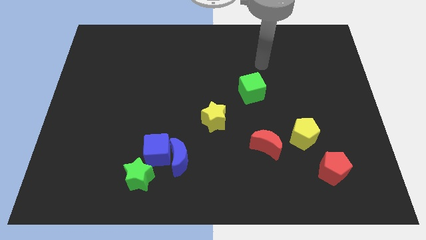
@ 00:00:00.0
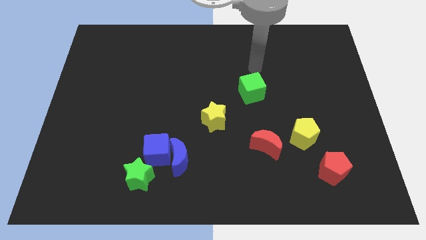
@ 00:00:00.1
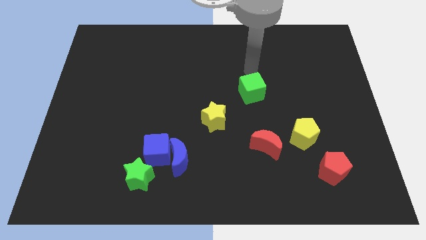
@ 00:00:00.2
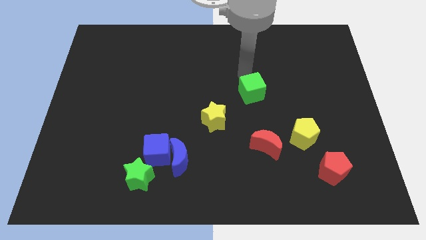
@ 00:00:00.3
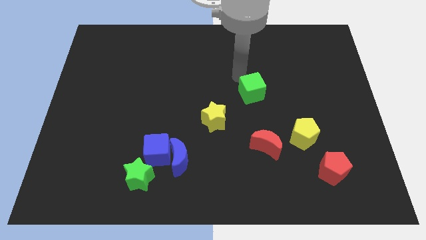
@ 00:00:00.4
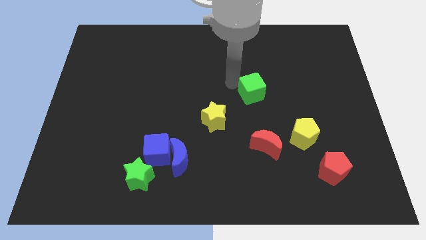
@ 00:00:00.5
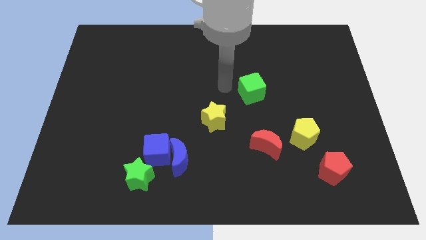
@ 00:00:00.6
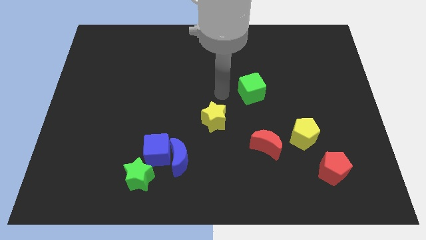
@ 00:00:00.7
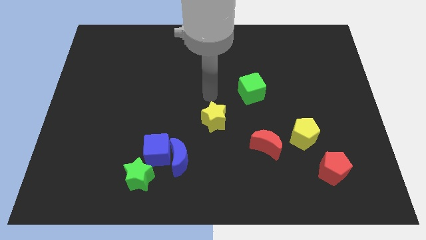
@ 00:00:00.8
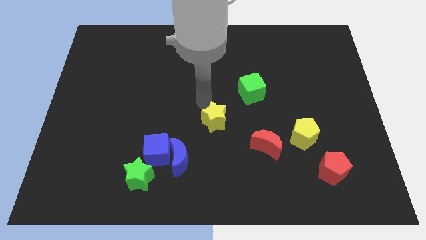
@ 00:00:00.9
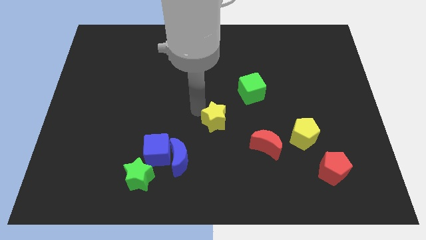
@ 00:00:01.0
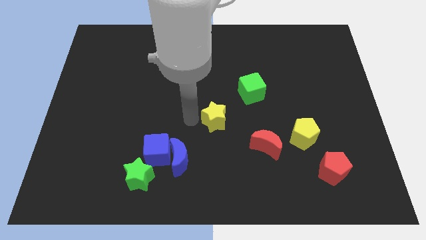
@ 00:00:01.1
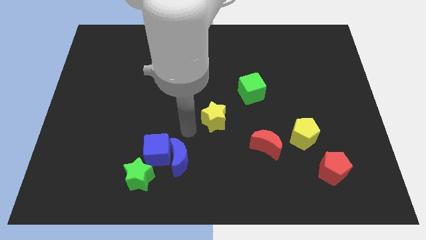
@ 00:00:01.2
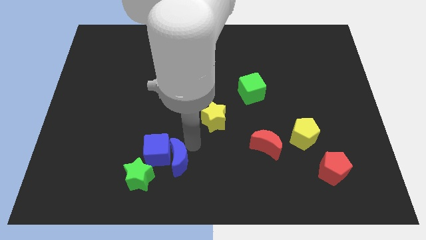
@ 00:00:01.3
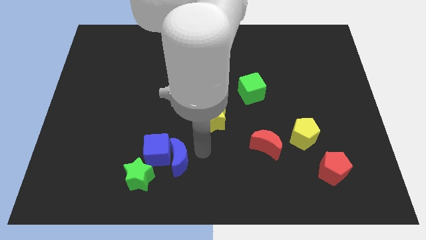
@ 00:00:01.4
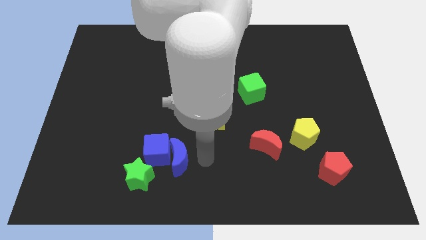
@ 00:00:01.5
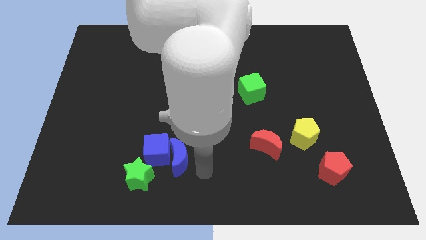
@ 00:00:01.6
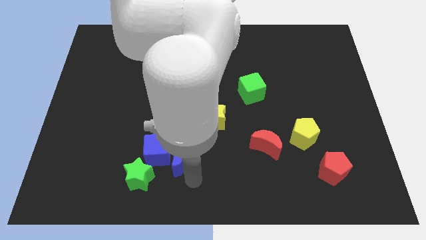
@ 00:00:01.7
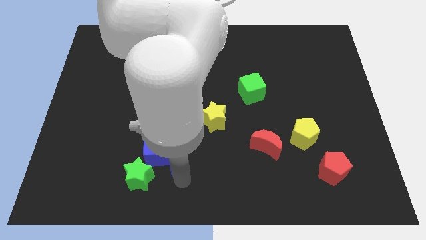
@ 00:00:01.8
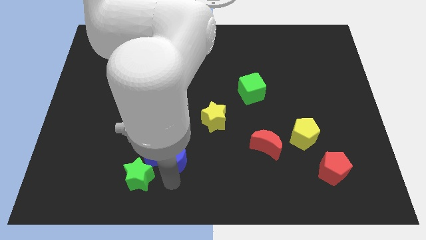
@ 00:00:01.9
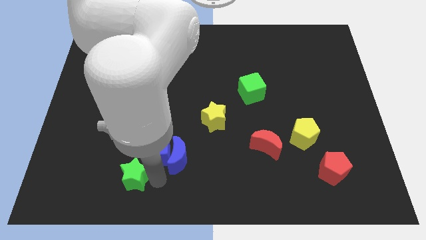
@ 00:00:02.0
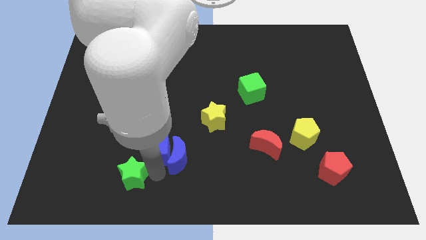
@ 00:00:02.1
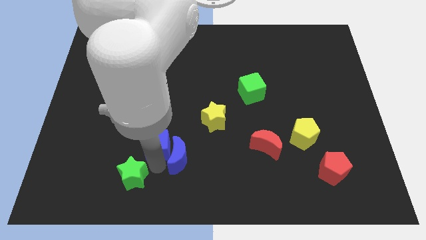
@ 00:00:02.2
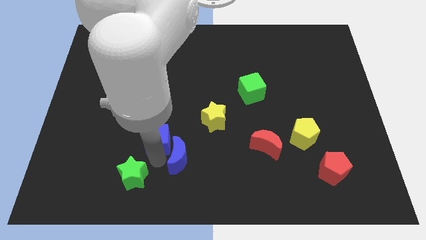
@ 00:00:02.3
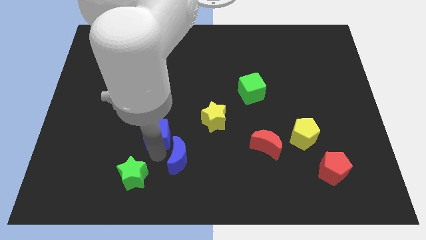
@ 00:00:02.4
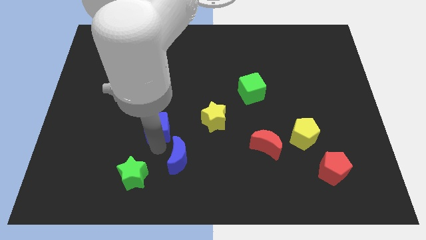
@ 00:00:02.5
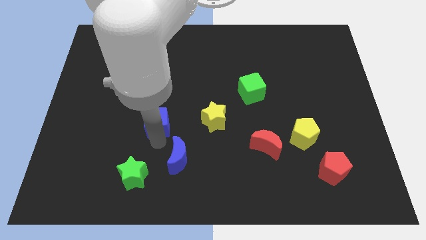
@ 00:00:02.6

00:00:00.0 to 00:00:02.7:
separate the blue cube from the blue moon and green star

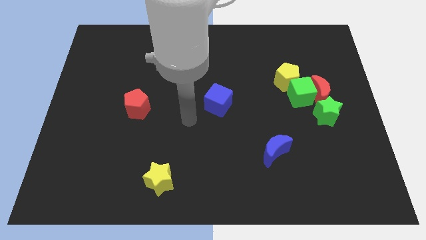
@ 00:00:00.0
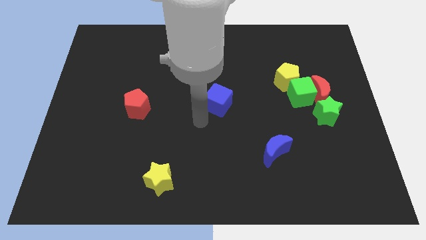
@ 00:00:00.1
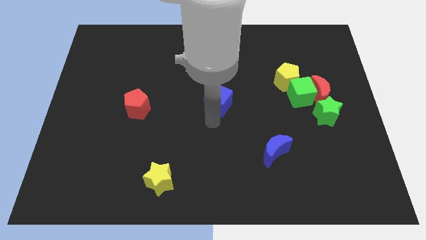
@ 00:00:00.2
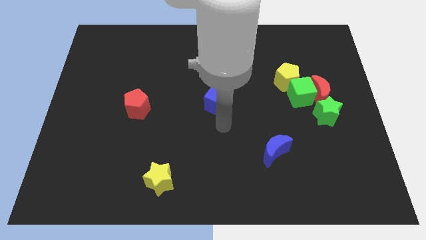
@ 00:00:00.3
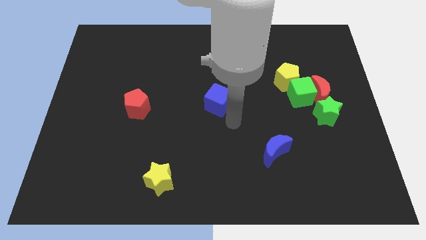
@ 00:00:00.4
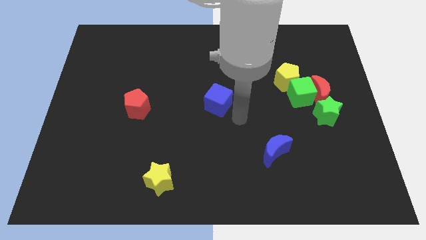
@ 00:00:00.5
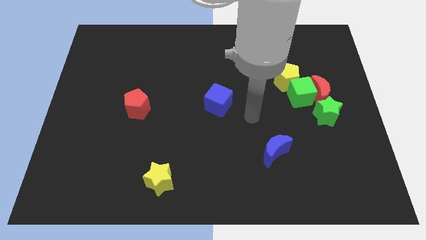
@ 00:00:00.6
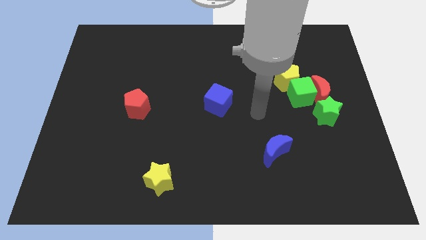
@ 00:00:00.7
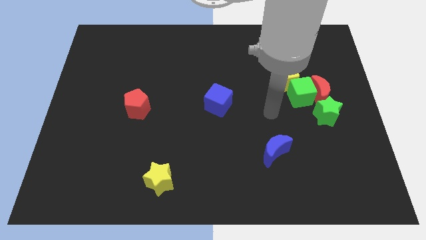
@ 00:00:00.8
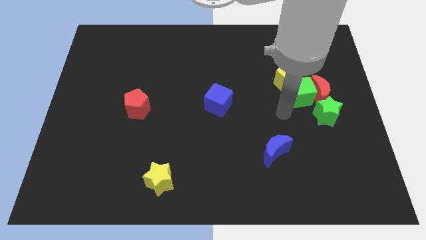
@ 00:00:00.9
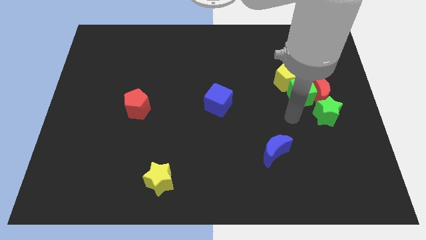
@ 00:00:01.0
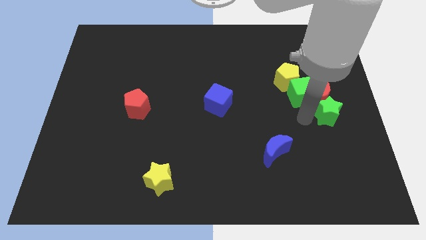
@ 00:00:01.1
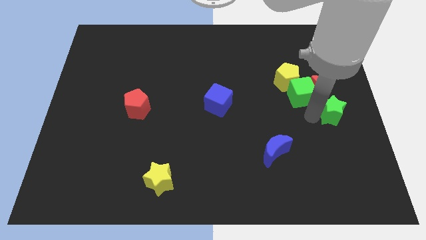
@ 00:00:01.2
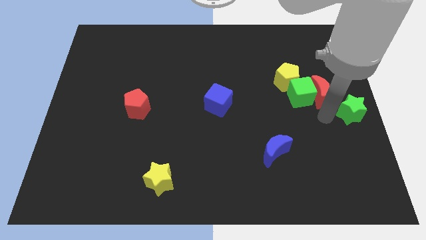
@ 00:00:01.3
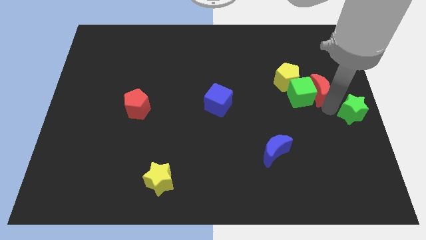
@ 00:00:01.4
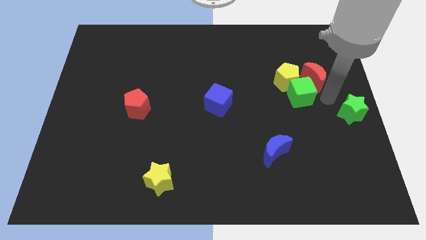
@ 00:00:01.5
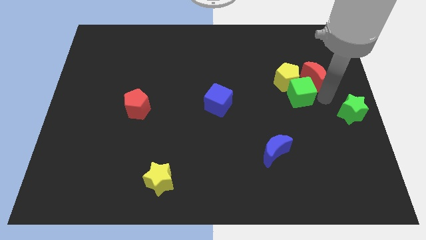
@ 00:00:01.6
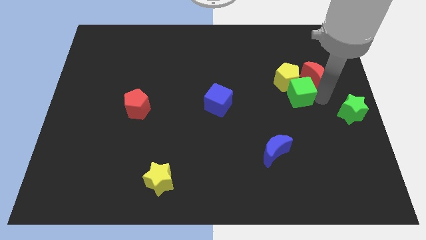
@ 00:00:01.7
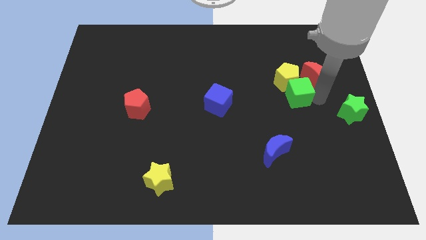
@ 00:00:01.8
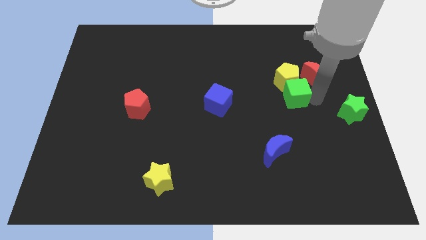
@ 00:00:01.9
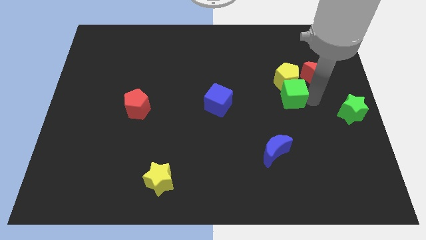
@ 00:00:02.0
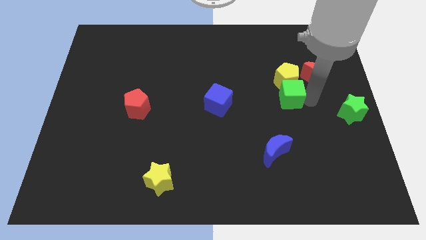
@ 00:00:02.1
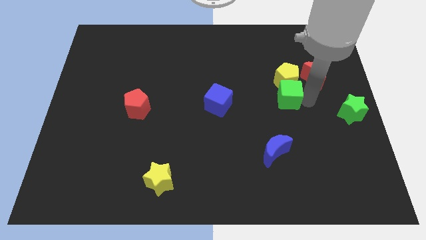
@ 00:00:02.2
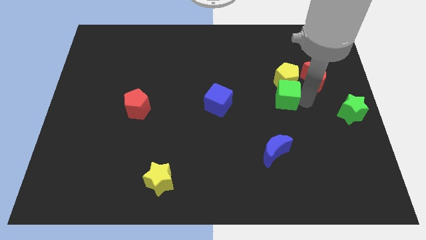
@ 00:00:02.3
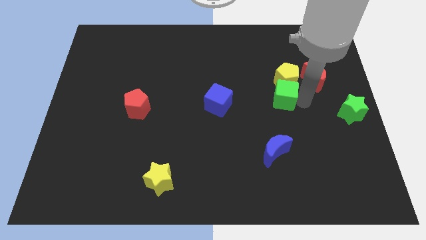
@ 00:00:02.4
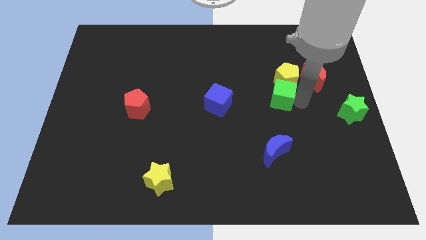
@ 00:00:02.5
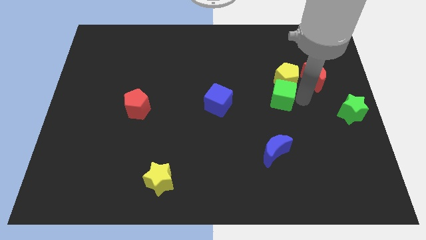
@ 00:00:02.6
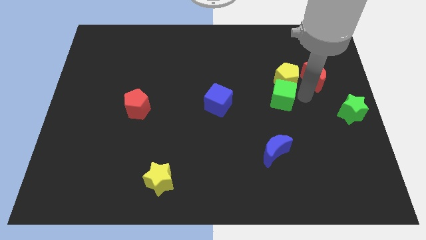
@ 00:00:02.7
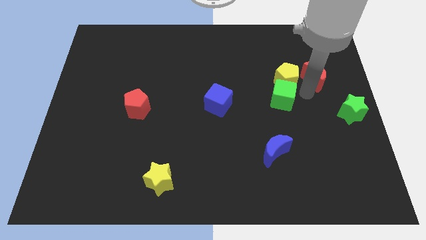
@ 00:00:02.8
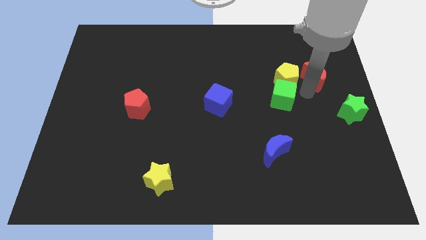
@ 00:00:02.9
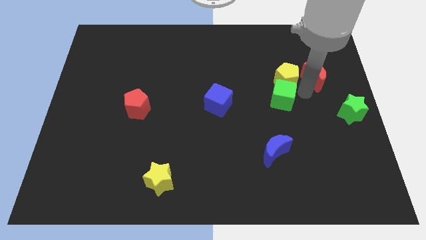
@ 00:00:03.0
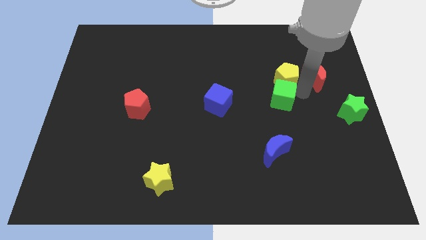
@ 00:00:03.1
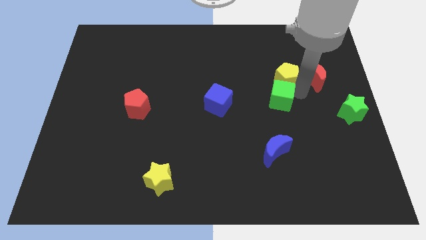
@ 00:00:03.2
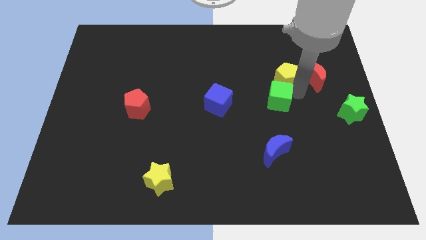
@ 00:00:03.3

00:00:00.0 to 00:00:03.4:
pull the green cube apart from the group

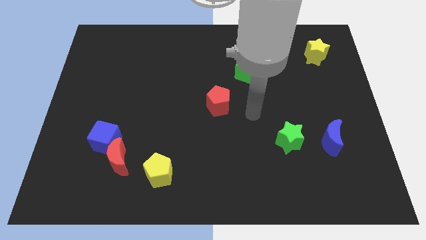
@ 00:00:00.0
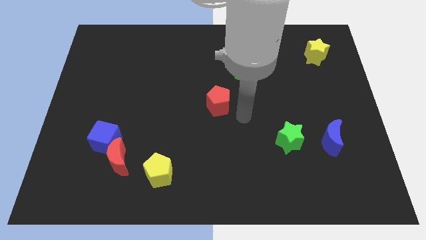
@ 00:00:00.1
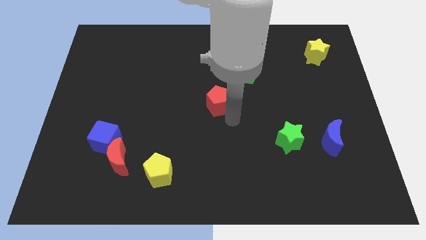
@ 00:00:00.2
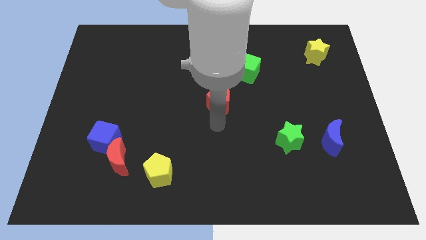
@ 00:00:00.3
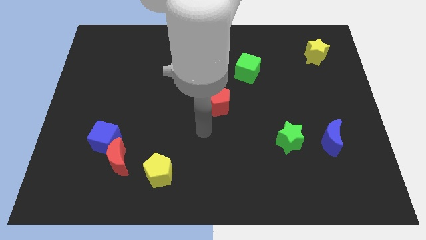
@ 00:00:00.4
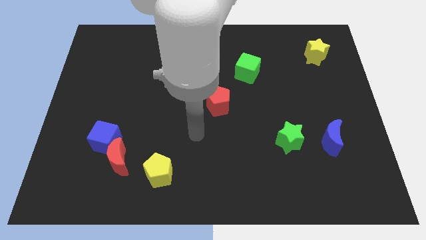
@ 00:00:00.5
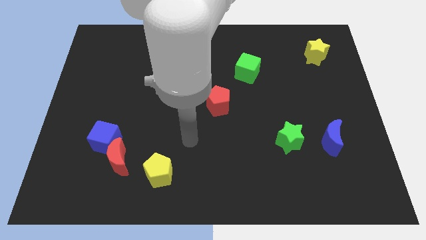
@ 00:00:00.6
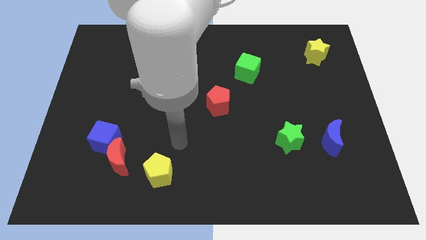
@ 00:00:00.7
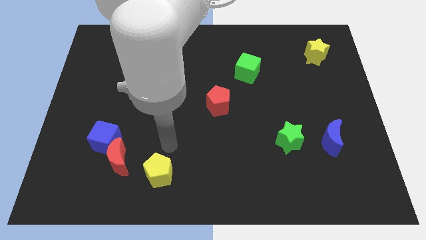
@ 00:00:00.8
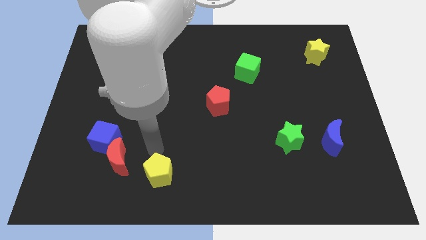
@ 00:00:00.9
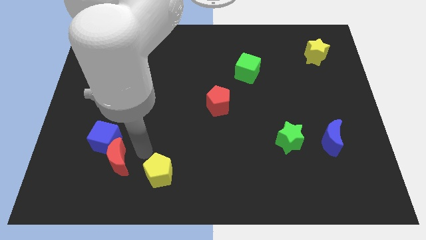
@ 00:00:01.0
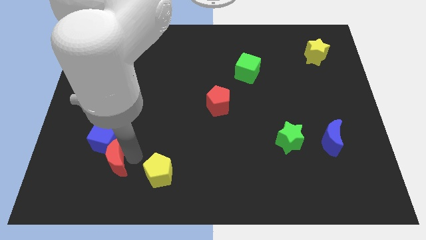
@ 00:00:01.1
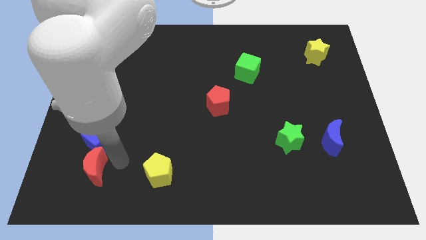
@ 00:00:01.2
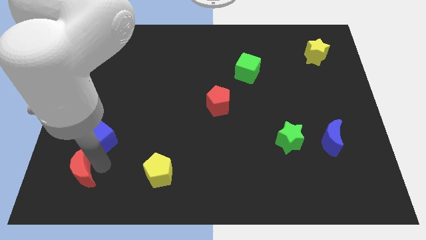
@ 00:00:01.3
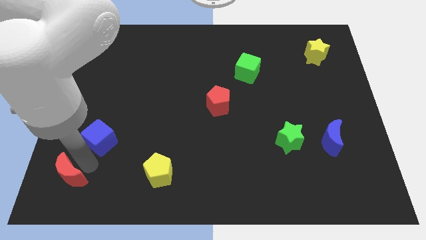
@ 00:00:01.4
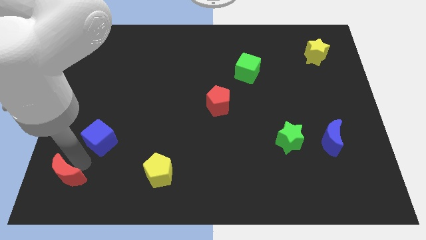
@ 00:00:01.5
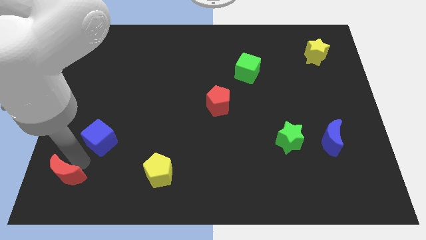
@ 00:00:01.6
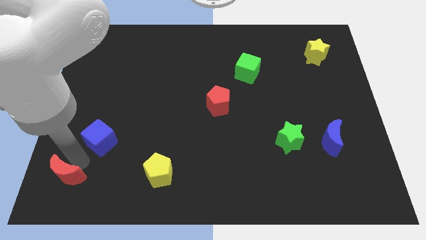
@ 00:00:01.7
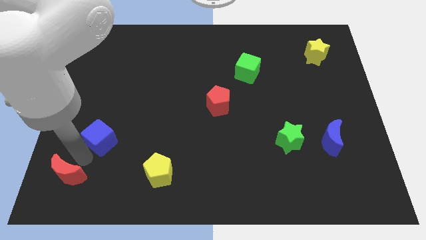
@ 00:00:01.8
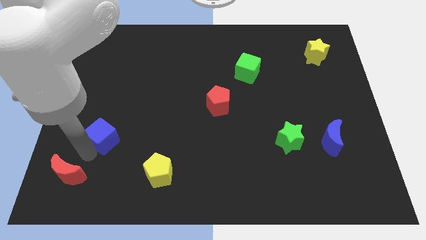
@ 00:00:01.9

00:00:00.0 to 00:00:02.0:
pull the blue cube apart from the red moon

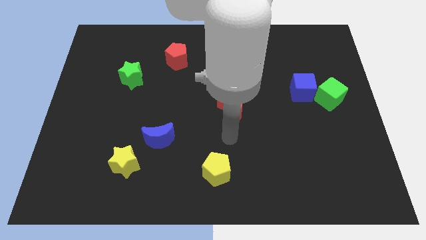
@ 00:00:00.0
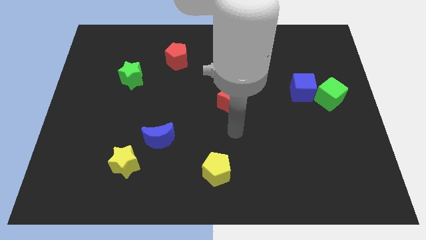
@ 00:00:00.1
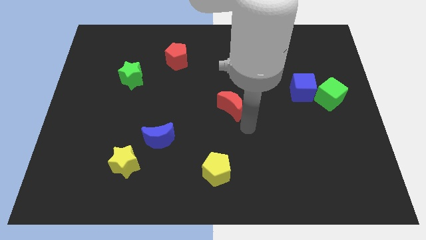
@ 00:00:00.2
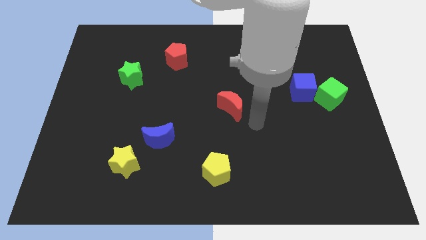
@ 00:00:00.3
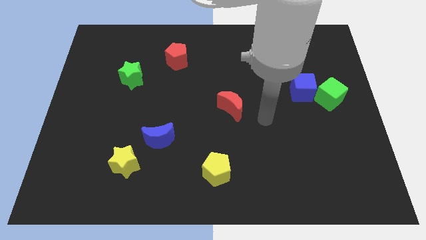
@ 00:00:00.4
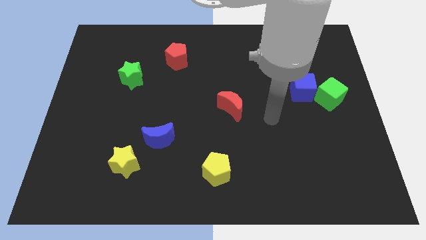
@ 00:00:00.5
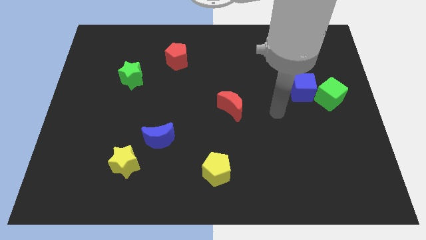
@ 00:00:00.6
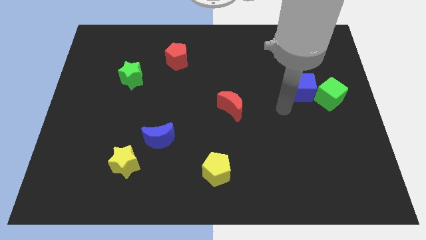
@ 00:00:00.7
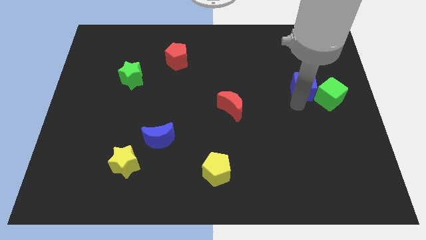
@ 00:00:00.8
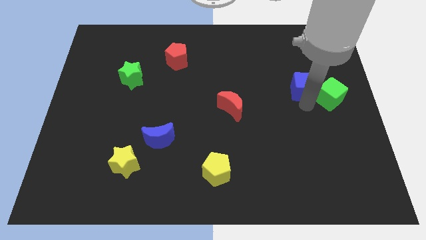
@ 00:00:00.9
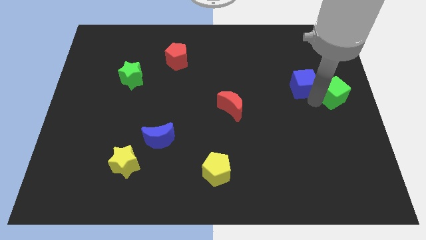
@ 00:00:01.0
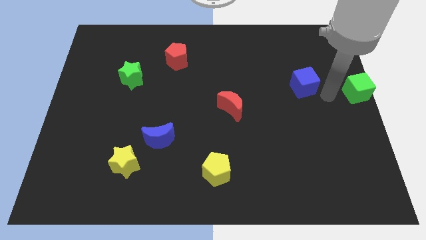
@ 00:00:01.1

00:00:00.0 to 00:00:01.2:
pull the blue cube apart from the green cube
